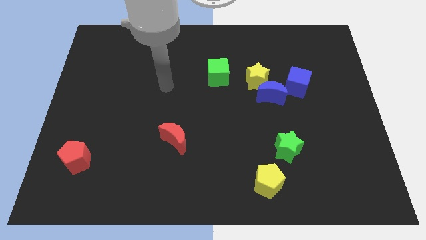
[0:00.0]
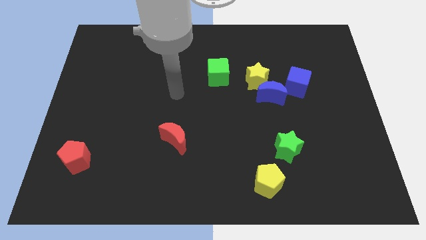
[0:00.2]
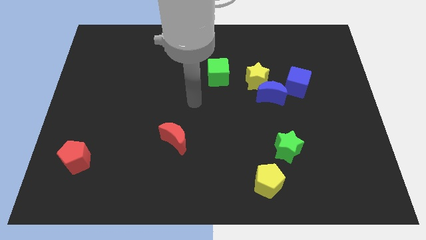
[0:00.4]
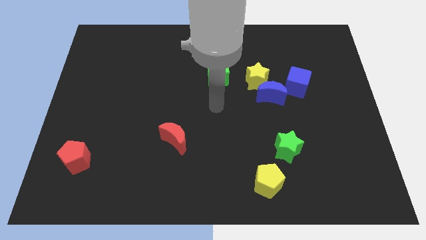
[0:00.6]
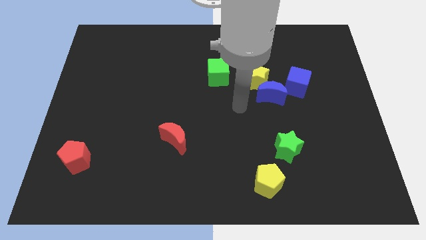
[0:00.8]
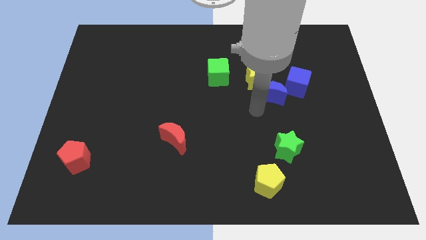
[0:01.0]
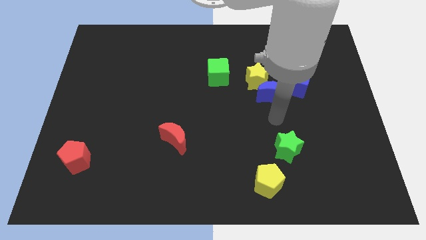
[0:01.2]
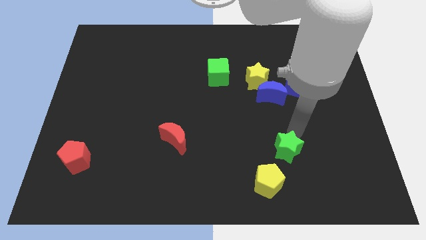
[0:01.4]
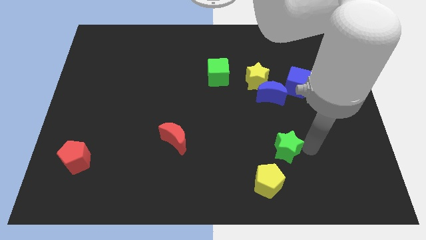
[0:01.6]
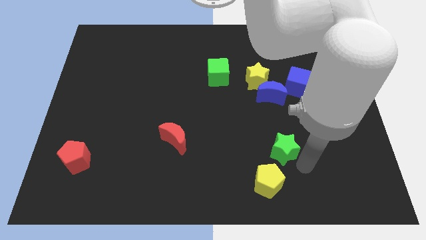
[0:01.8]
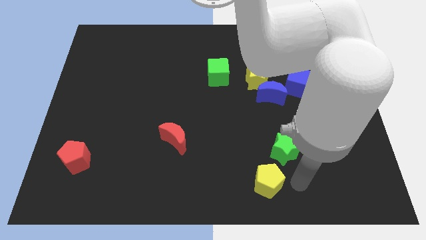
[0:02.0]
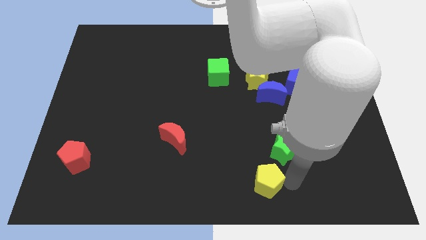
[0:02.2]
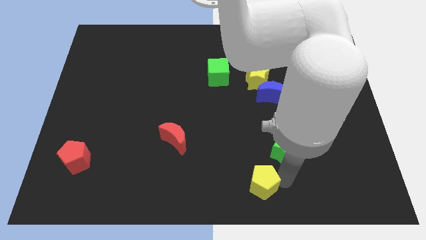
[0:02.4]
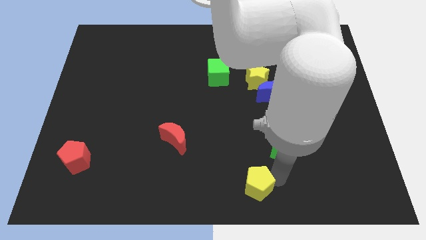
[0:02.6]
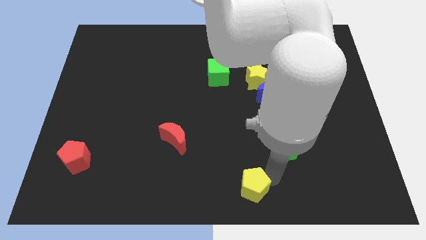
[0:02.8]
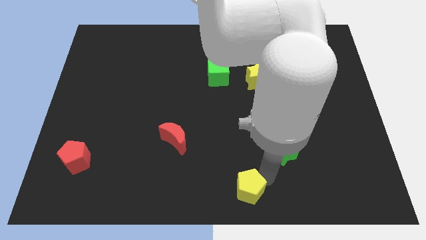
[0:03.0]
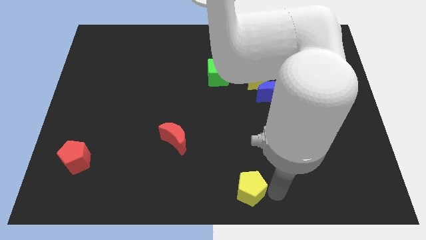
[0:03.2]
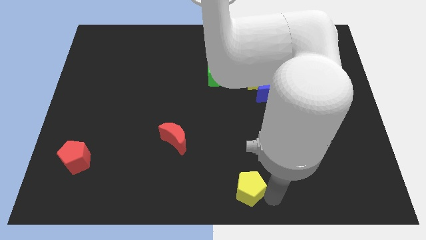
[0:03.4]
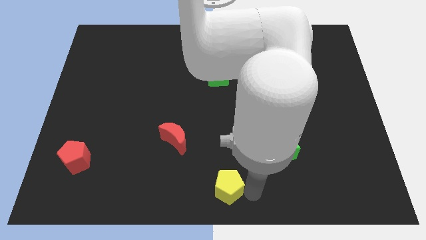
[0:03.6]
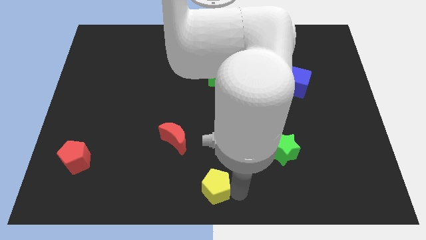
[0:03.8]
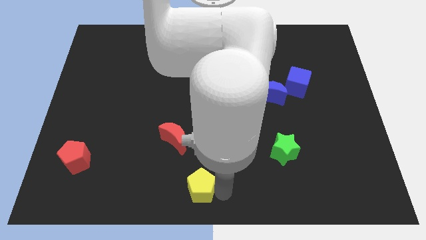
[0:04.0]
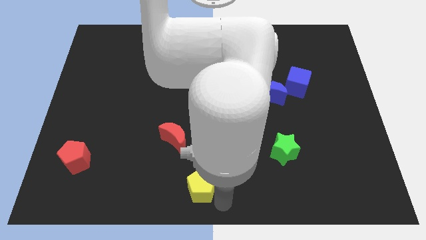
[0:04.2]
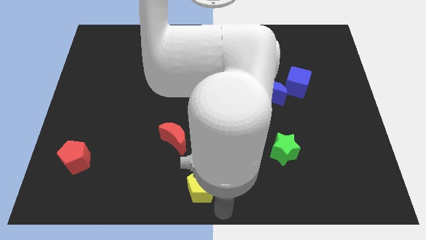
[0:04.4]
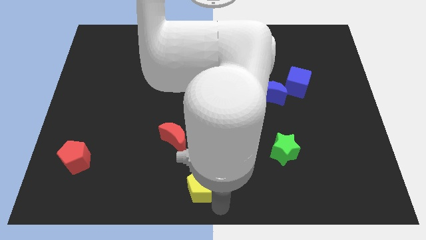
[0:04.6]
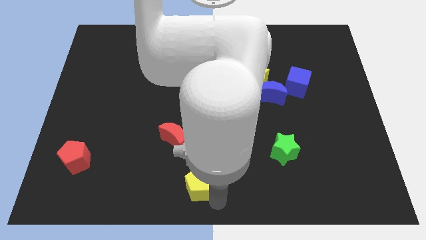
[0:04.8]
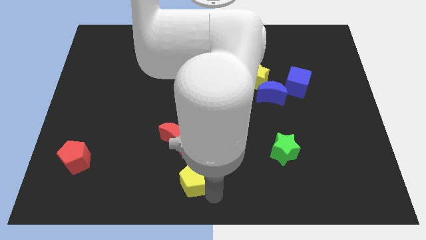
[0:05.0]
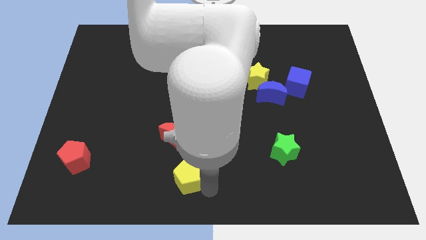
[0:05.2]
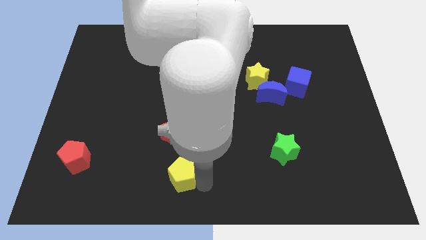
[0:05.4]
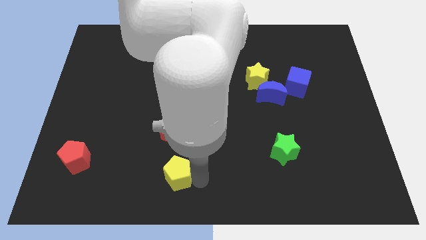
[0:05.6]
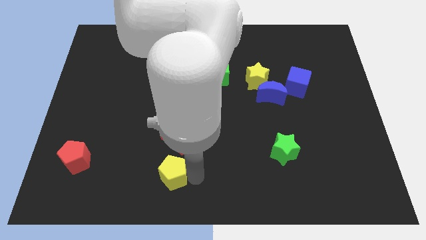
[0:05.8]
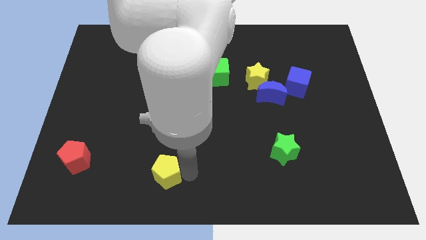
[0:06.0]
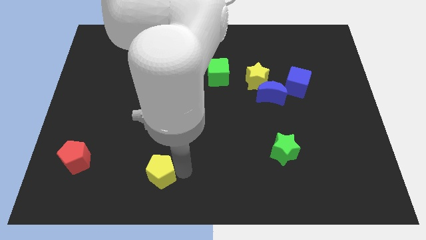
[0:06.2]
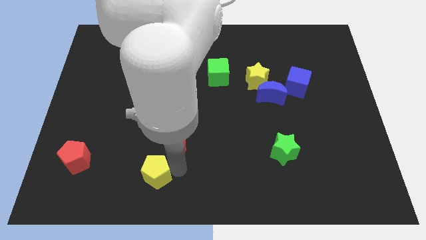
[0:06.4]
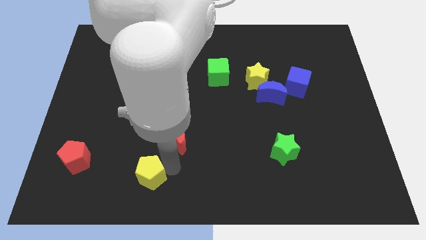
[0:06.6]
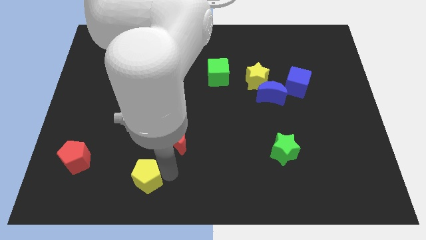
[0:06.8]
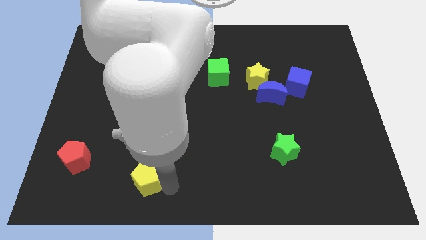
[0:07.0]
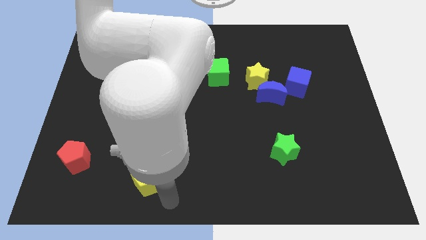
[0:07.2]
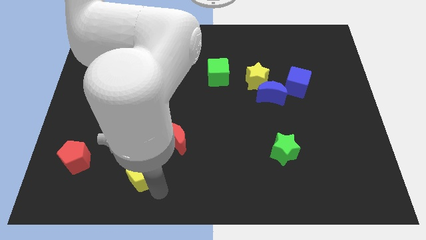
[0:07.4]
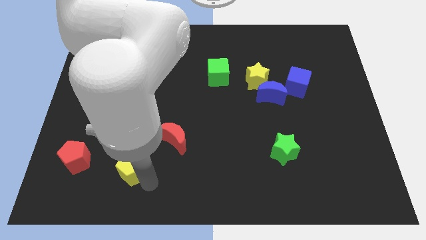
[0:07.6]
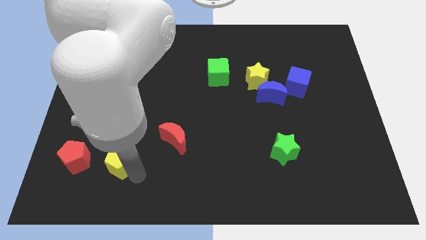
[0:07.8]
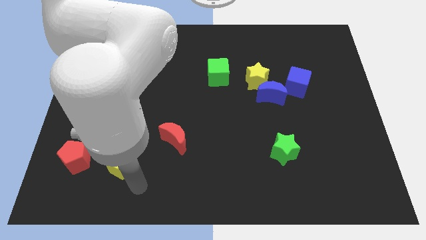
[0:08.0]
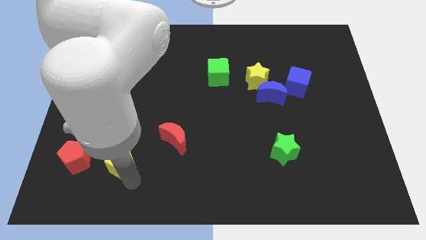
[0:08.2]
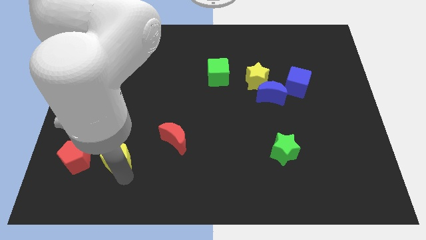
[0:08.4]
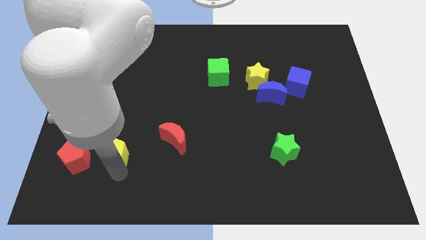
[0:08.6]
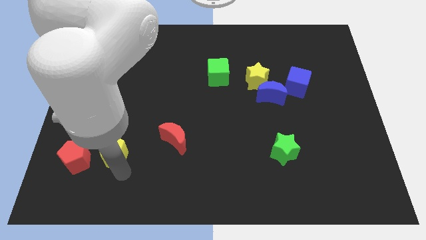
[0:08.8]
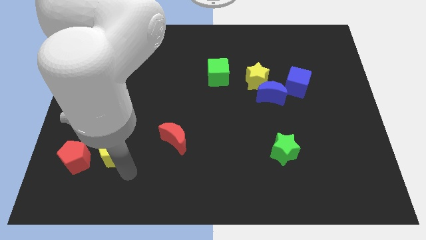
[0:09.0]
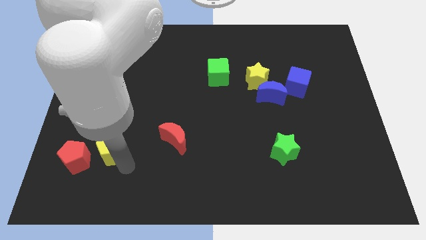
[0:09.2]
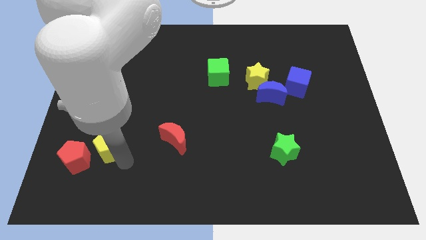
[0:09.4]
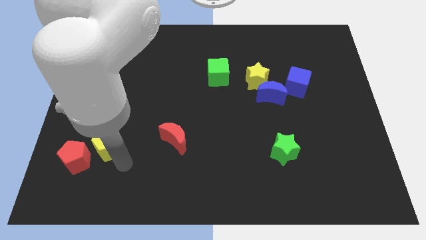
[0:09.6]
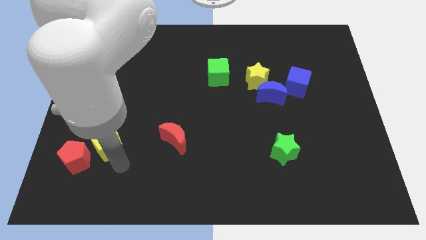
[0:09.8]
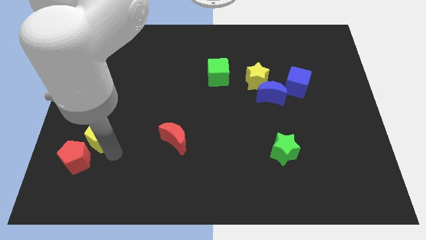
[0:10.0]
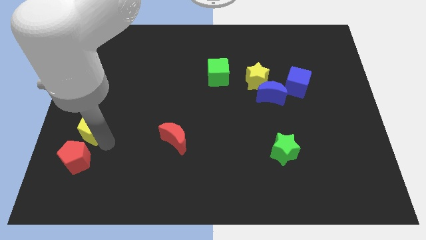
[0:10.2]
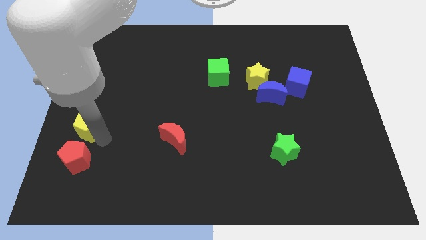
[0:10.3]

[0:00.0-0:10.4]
slide the yellow pentagon to the left side

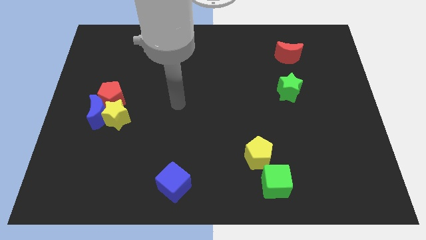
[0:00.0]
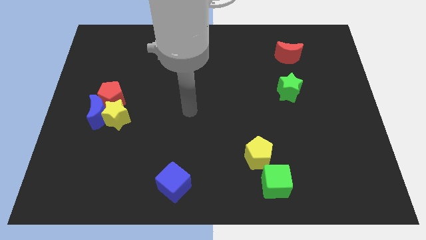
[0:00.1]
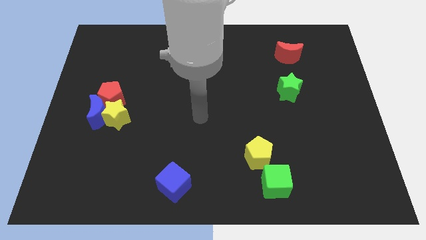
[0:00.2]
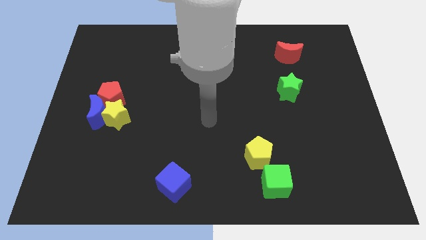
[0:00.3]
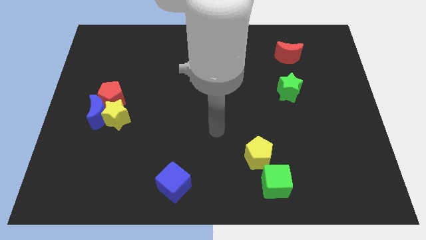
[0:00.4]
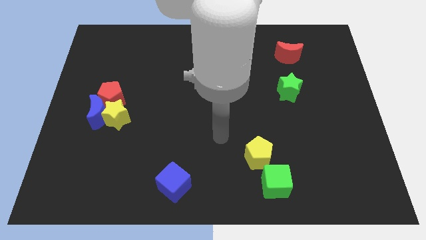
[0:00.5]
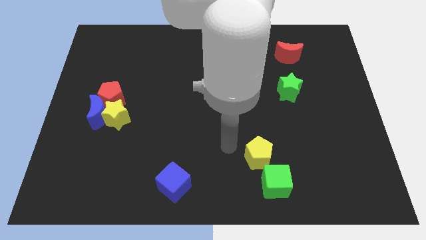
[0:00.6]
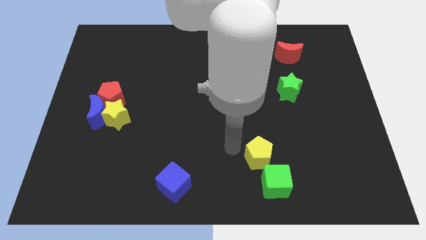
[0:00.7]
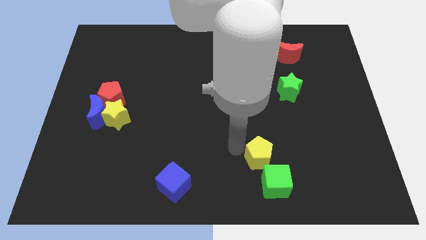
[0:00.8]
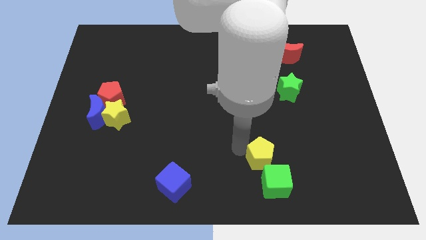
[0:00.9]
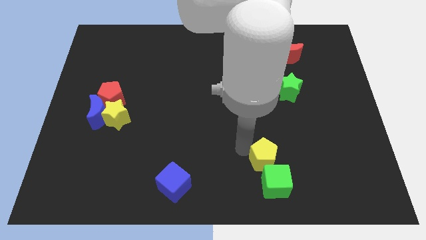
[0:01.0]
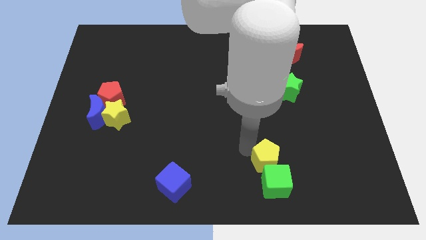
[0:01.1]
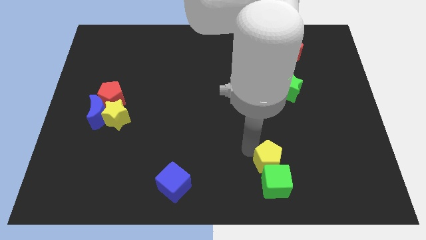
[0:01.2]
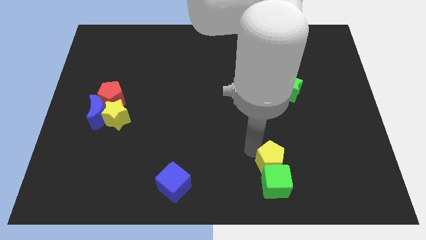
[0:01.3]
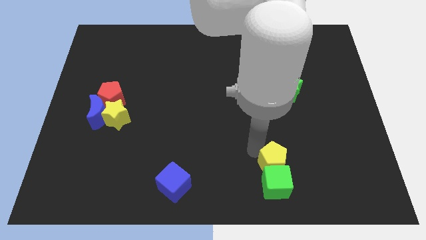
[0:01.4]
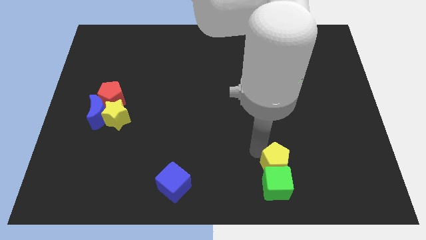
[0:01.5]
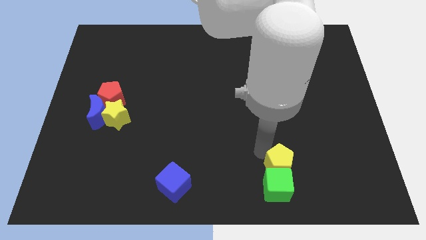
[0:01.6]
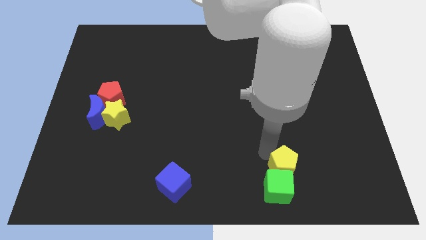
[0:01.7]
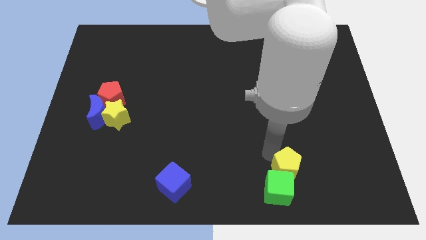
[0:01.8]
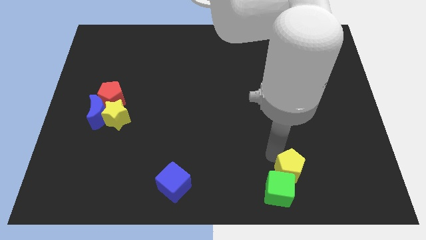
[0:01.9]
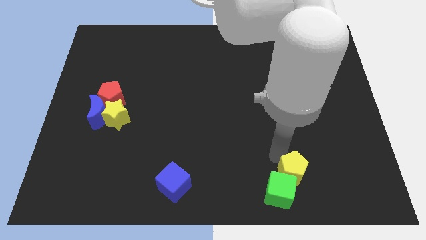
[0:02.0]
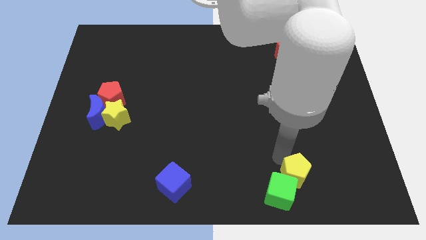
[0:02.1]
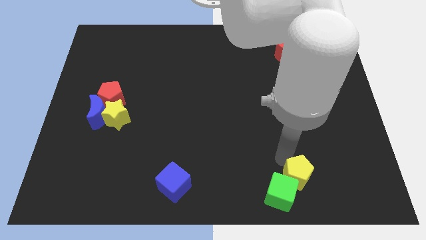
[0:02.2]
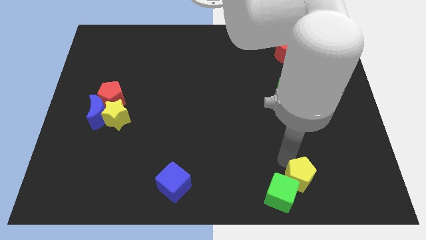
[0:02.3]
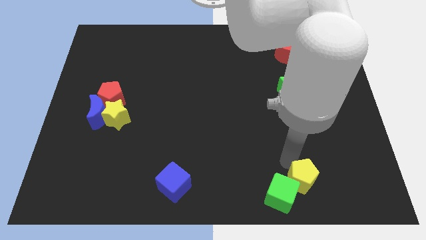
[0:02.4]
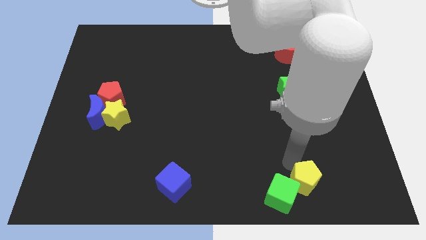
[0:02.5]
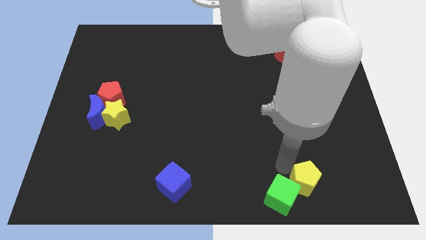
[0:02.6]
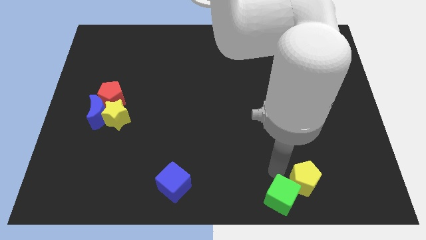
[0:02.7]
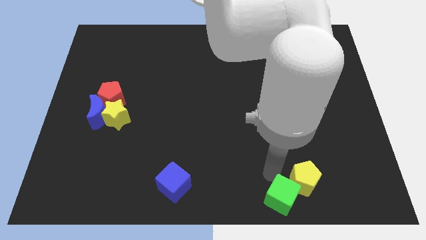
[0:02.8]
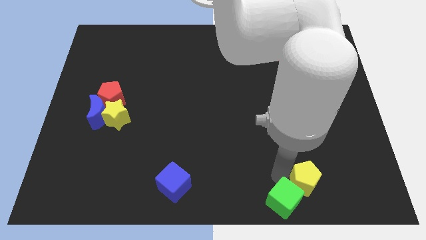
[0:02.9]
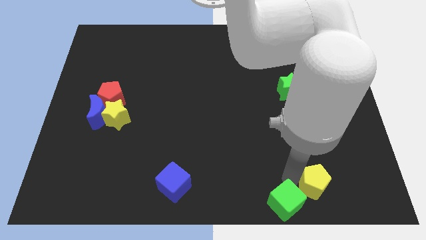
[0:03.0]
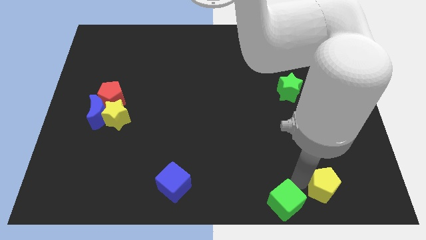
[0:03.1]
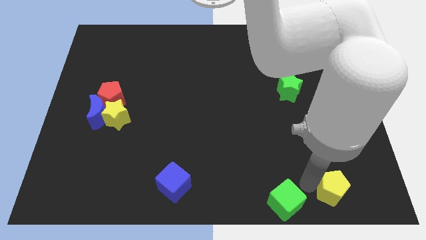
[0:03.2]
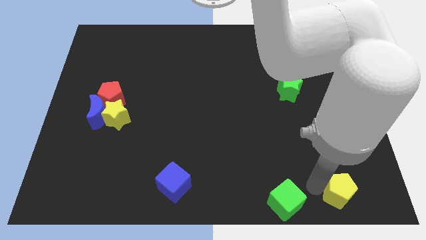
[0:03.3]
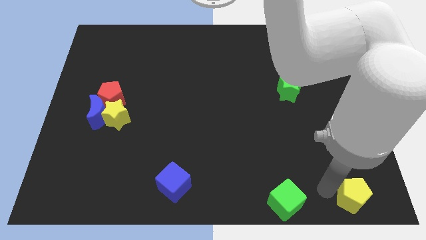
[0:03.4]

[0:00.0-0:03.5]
move the yellow pentagon to the bottom right
